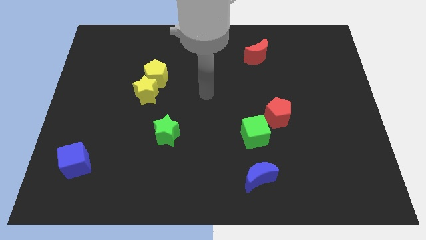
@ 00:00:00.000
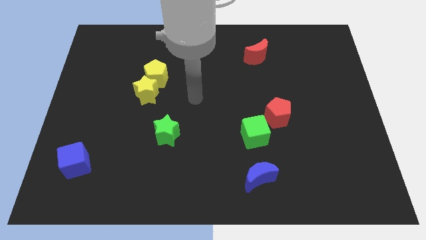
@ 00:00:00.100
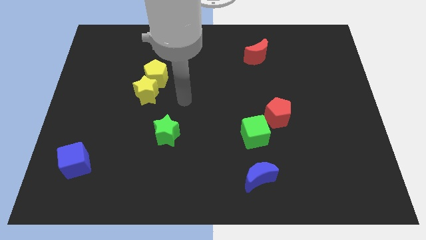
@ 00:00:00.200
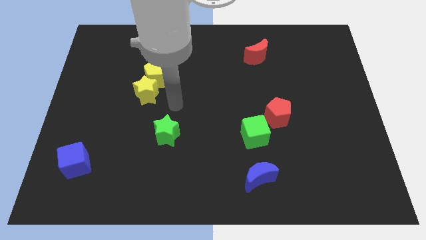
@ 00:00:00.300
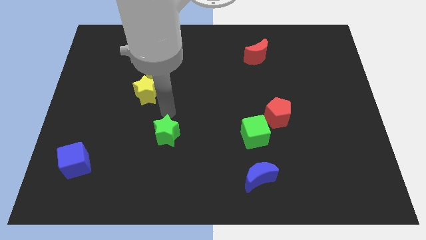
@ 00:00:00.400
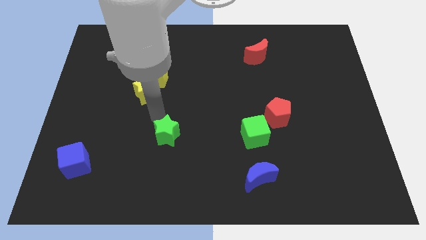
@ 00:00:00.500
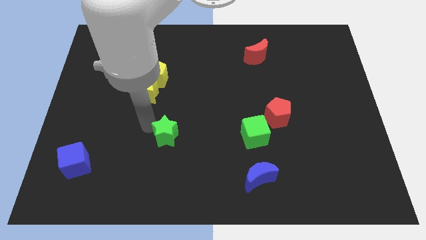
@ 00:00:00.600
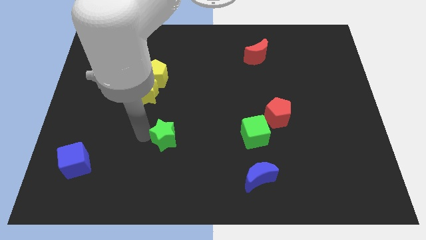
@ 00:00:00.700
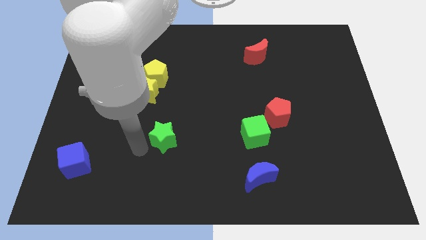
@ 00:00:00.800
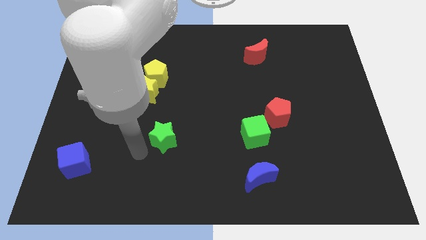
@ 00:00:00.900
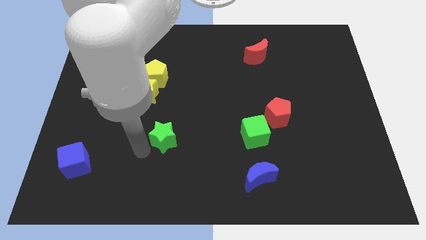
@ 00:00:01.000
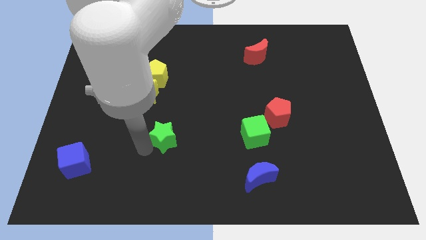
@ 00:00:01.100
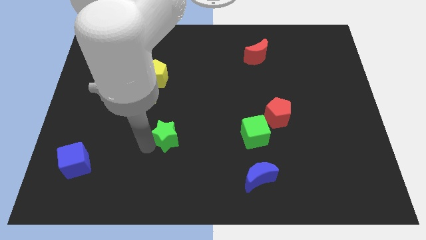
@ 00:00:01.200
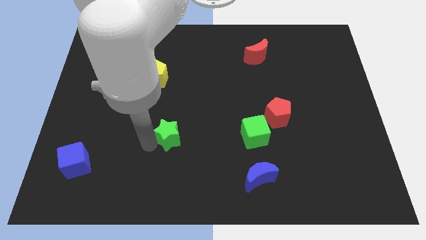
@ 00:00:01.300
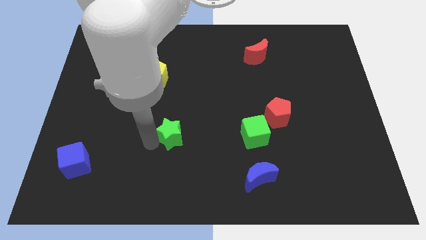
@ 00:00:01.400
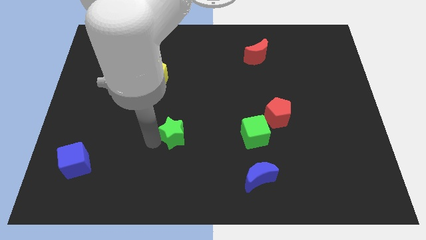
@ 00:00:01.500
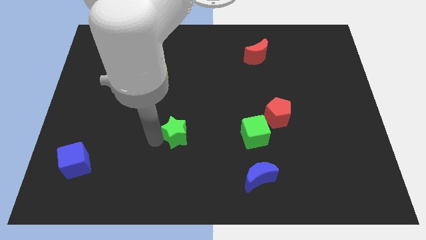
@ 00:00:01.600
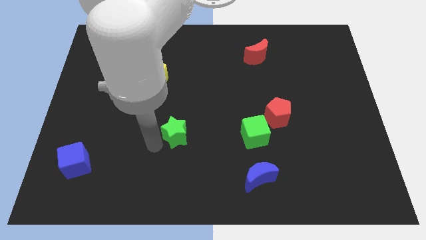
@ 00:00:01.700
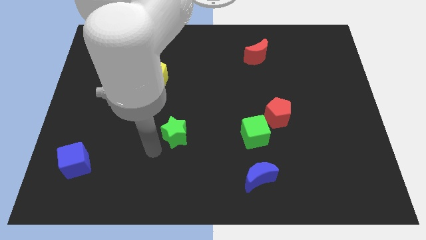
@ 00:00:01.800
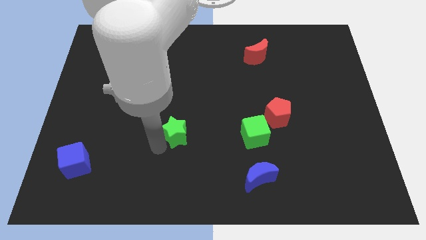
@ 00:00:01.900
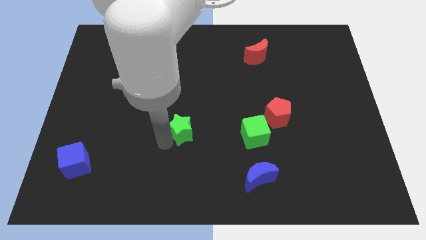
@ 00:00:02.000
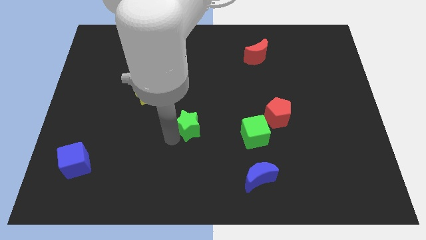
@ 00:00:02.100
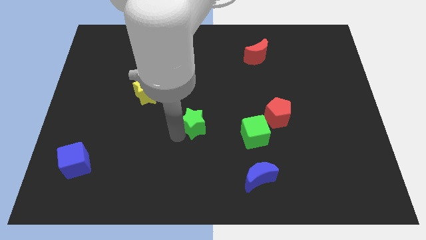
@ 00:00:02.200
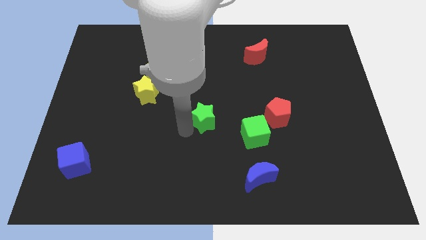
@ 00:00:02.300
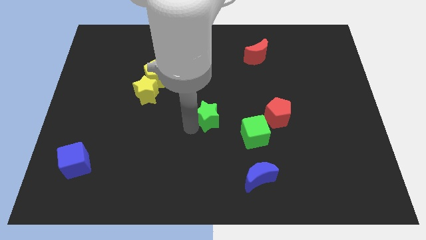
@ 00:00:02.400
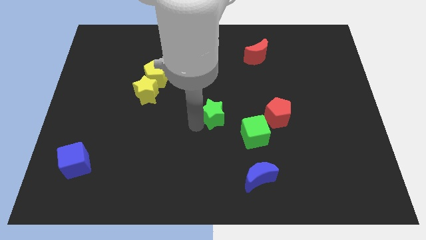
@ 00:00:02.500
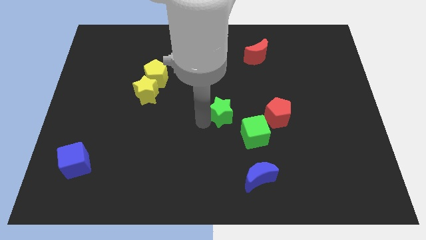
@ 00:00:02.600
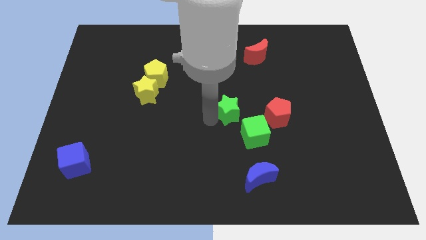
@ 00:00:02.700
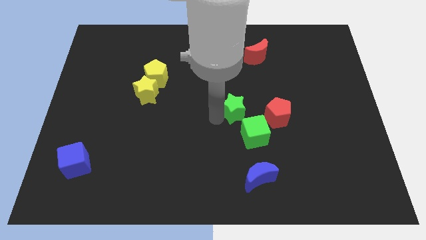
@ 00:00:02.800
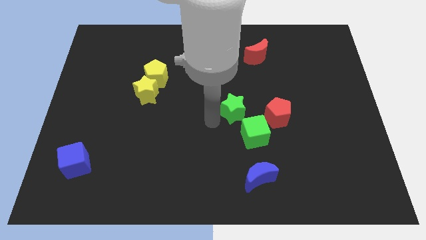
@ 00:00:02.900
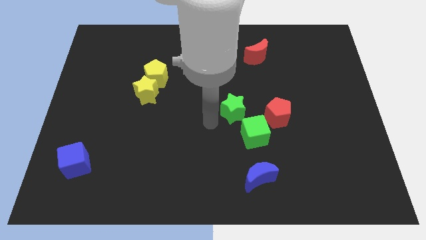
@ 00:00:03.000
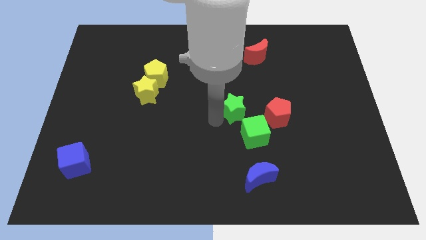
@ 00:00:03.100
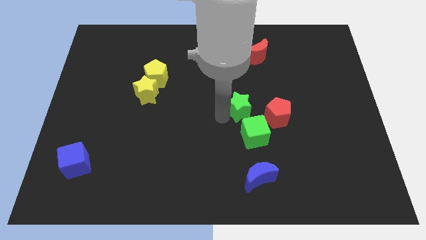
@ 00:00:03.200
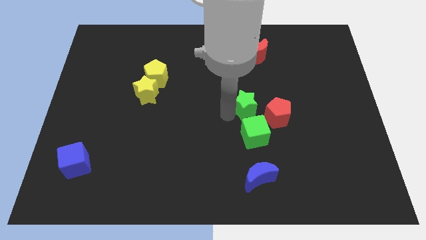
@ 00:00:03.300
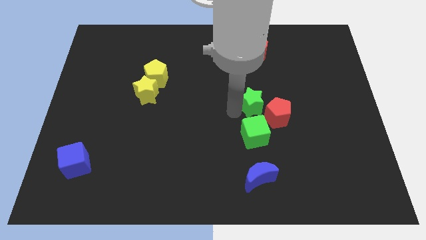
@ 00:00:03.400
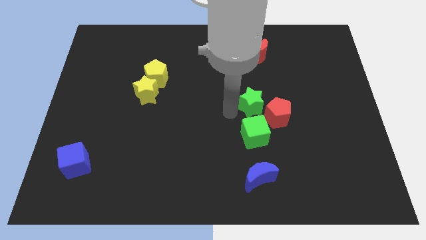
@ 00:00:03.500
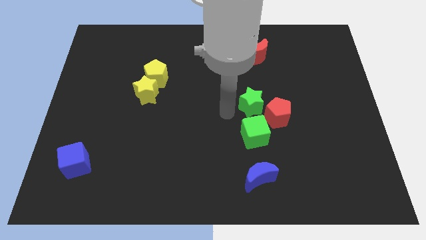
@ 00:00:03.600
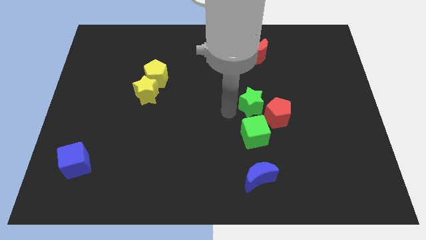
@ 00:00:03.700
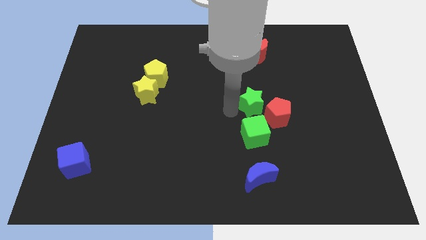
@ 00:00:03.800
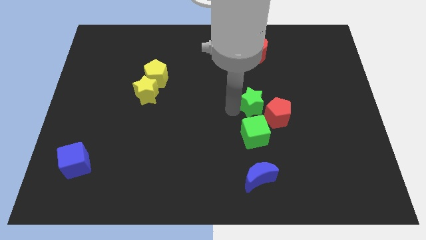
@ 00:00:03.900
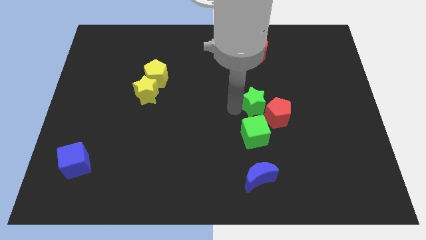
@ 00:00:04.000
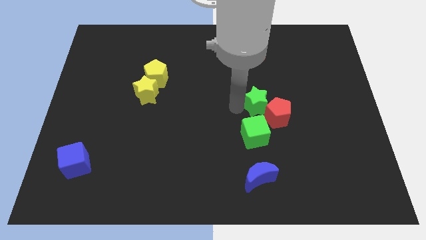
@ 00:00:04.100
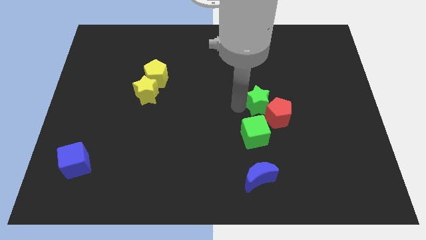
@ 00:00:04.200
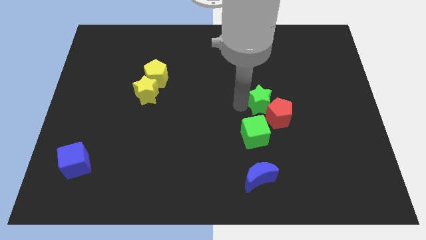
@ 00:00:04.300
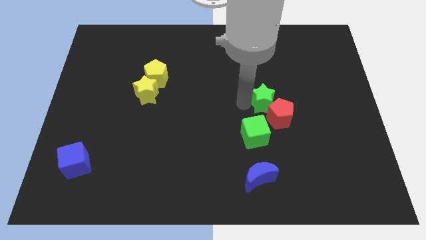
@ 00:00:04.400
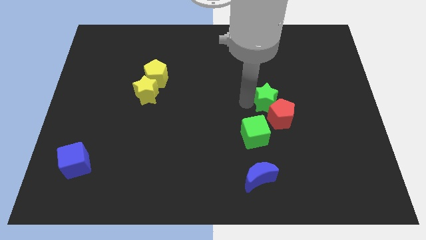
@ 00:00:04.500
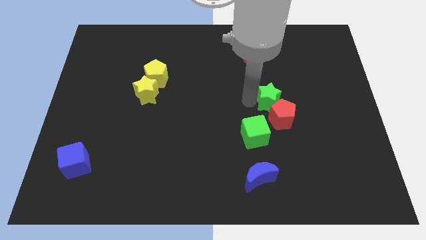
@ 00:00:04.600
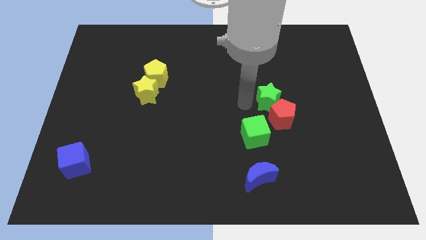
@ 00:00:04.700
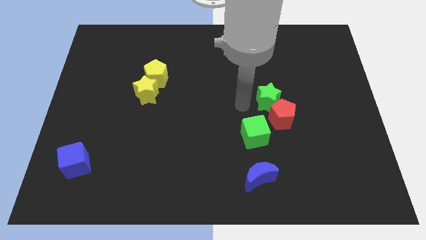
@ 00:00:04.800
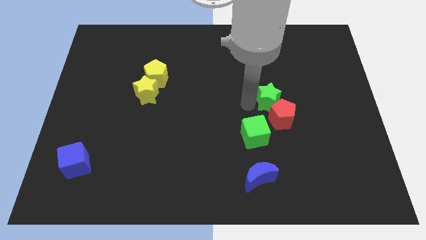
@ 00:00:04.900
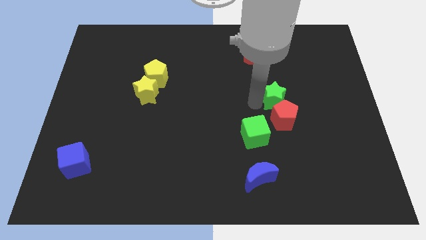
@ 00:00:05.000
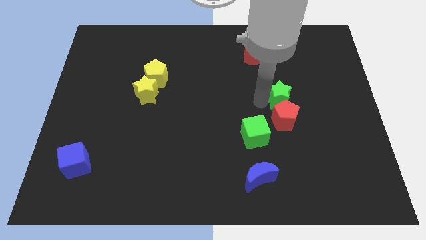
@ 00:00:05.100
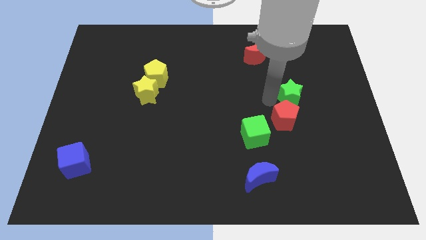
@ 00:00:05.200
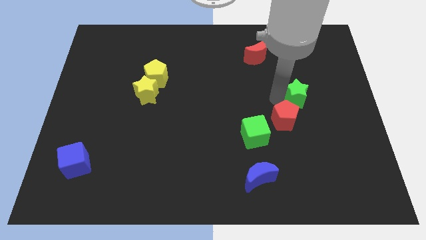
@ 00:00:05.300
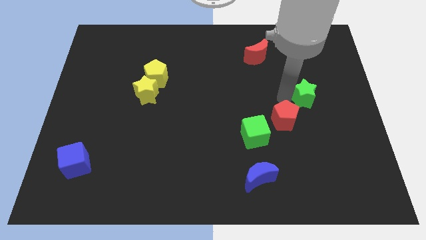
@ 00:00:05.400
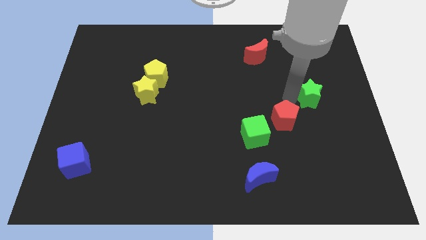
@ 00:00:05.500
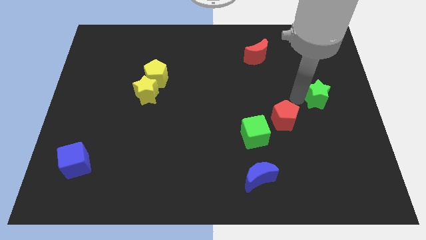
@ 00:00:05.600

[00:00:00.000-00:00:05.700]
push the green star to the right side

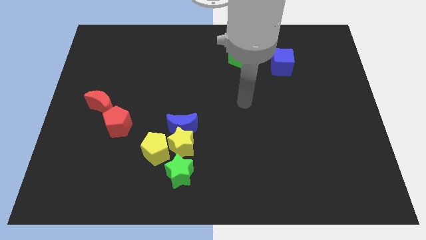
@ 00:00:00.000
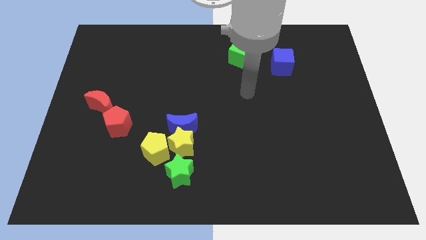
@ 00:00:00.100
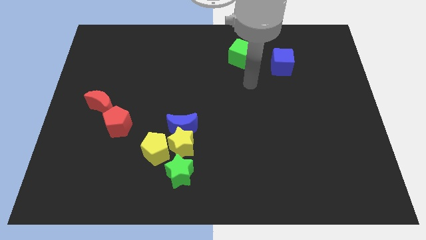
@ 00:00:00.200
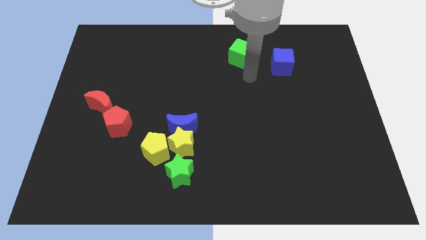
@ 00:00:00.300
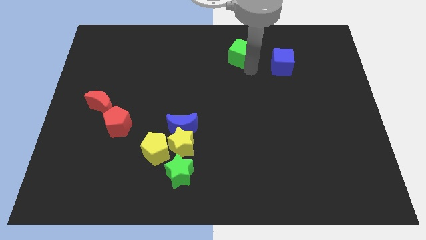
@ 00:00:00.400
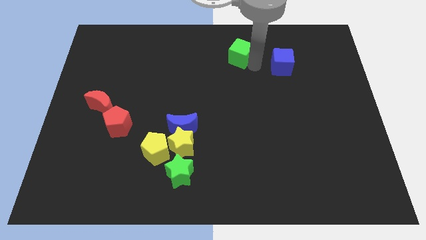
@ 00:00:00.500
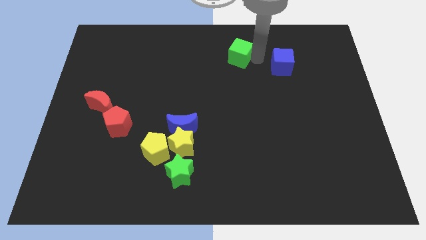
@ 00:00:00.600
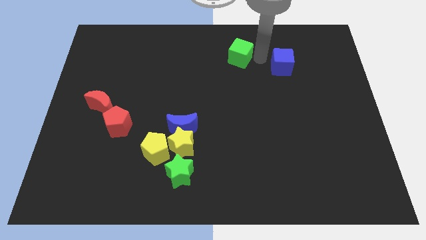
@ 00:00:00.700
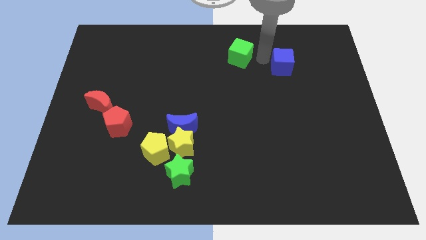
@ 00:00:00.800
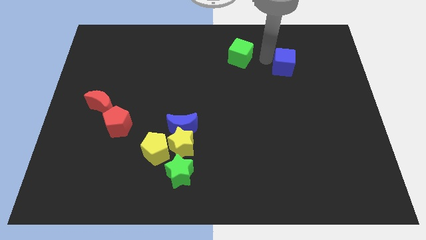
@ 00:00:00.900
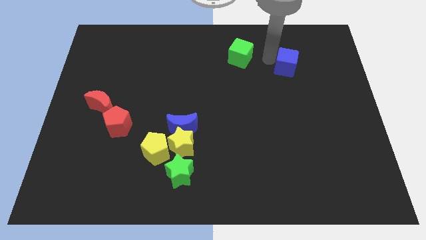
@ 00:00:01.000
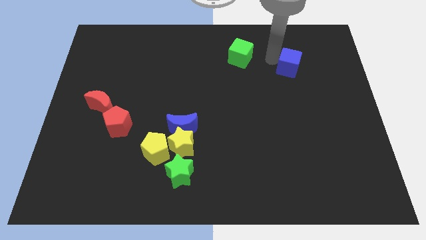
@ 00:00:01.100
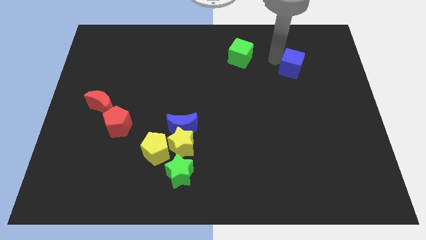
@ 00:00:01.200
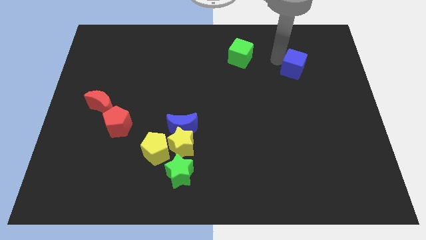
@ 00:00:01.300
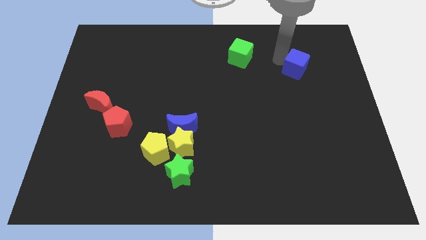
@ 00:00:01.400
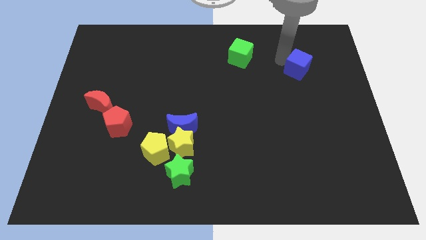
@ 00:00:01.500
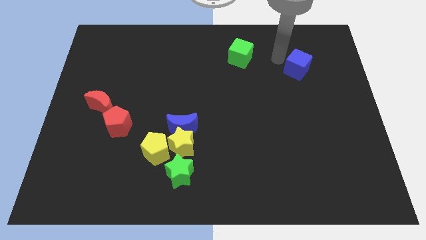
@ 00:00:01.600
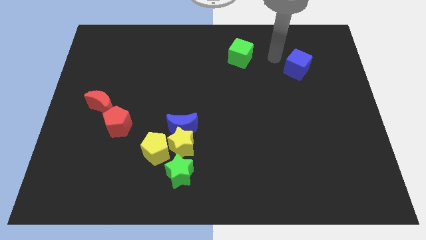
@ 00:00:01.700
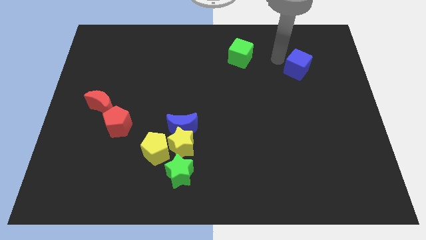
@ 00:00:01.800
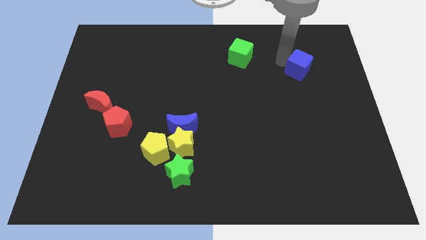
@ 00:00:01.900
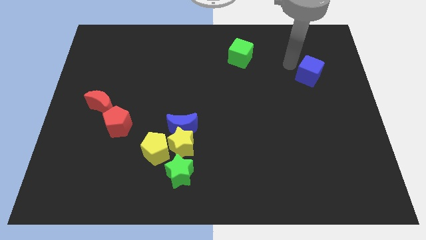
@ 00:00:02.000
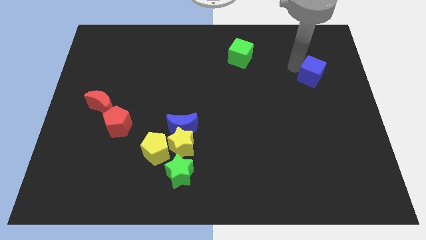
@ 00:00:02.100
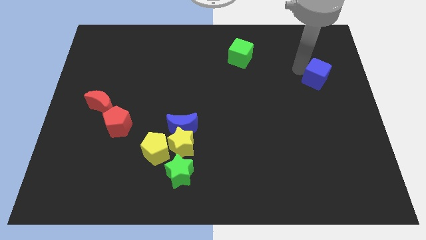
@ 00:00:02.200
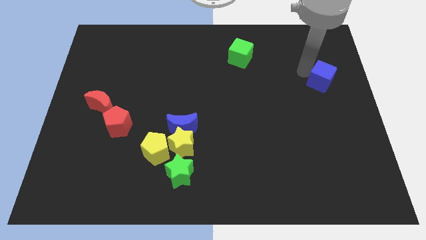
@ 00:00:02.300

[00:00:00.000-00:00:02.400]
slide the blue cube to the right side of the board
